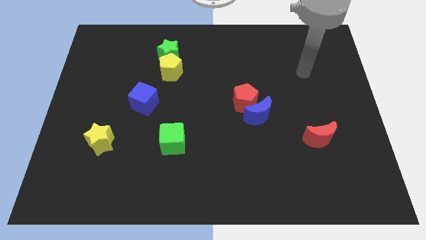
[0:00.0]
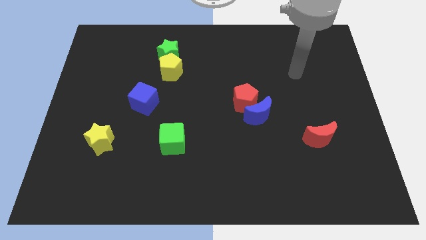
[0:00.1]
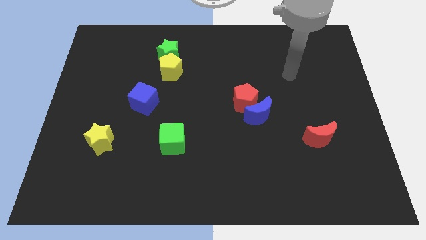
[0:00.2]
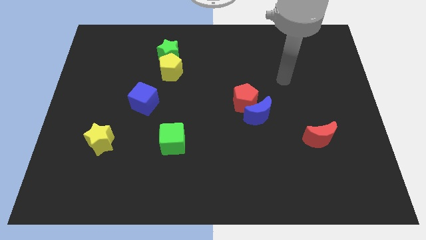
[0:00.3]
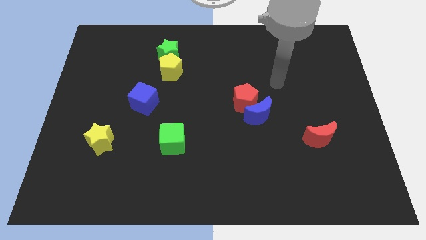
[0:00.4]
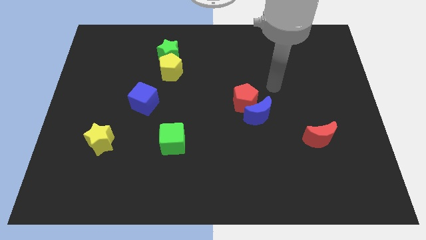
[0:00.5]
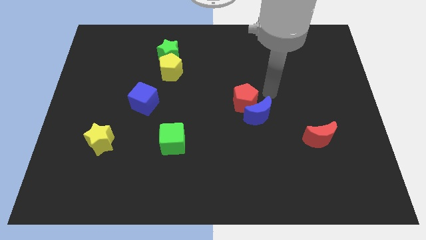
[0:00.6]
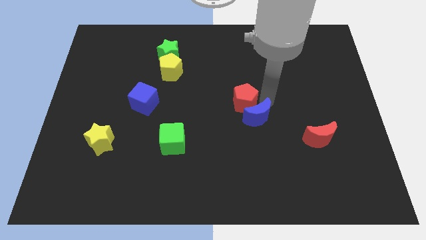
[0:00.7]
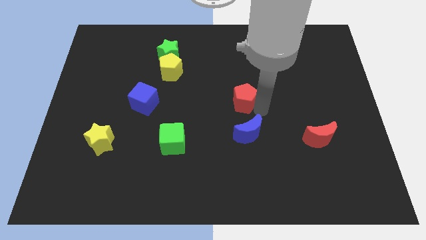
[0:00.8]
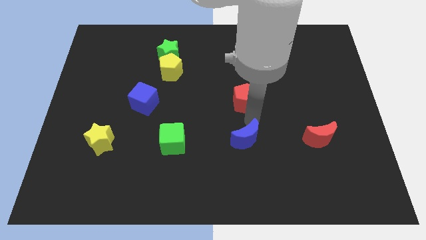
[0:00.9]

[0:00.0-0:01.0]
separate the red pentagon from the blue moon

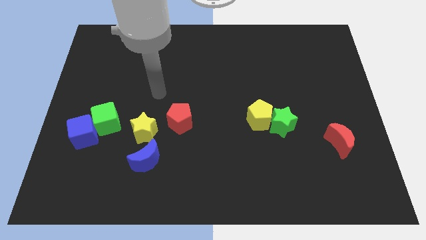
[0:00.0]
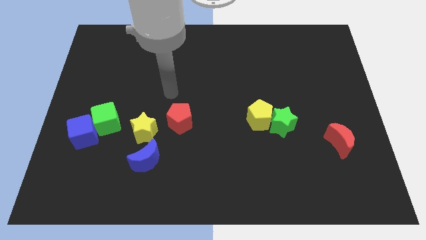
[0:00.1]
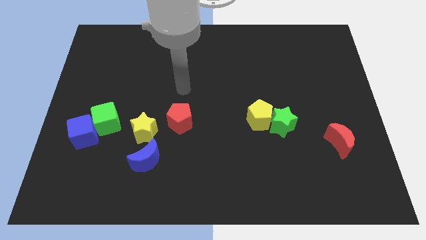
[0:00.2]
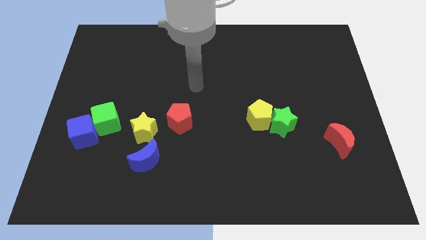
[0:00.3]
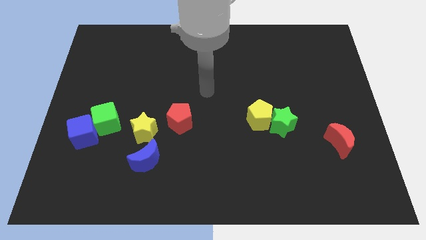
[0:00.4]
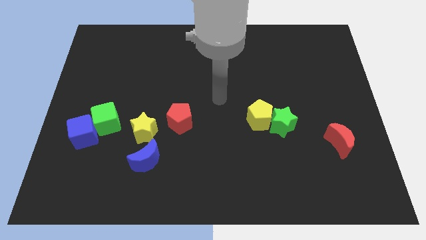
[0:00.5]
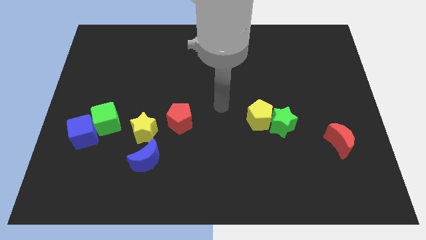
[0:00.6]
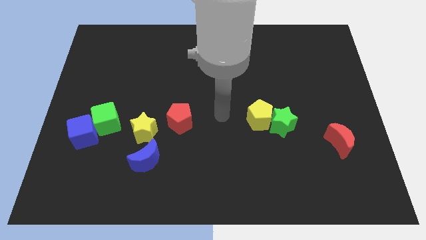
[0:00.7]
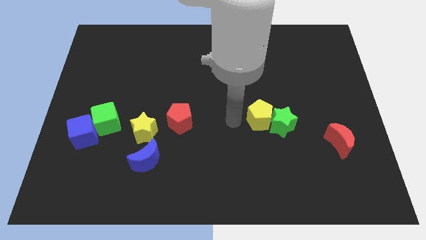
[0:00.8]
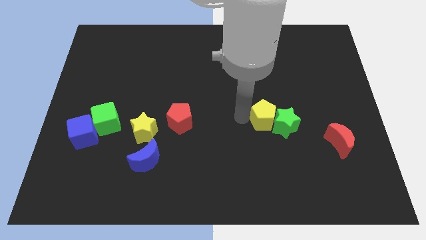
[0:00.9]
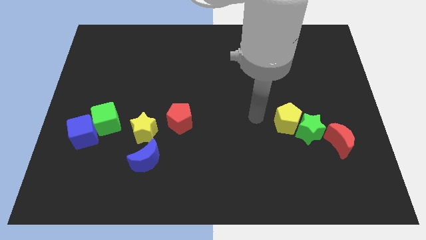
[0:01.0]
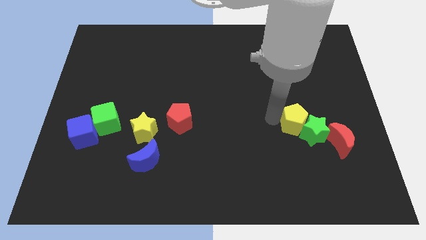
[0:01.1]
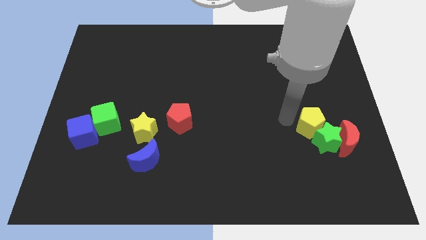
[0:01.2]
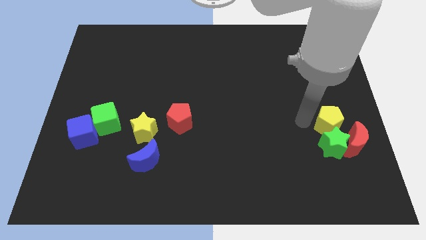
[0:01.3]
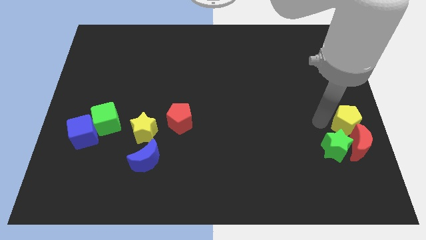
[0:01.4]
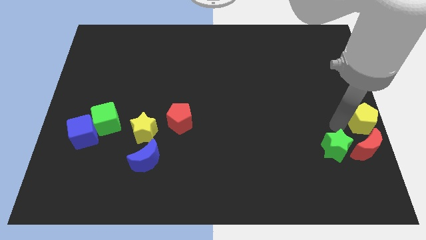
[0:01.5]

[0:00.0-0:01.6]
pull the green star apart from the yellow pentagon

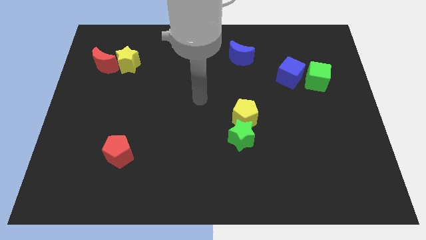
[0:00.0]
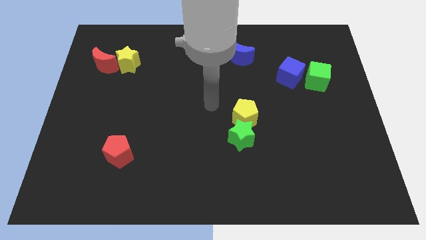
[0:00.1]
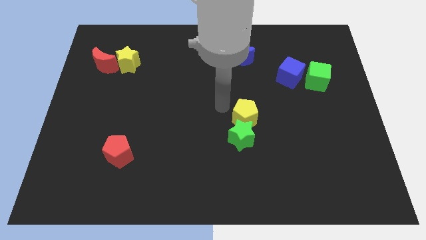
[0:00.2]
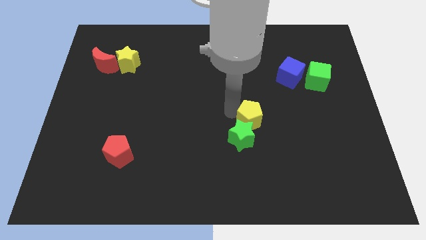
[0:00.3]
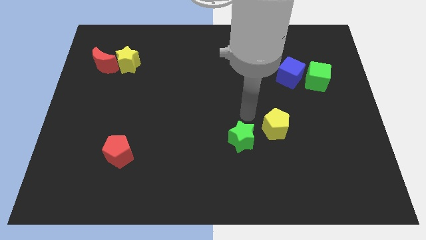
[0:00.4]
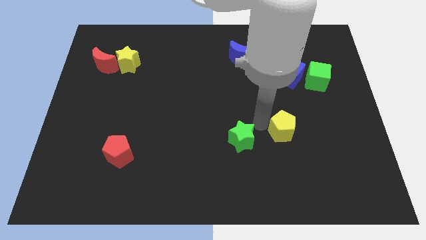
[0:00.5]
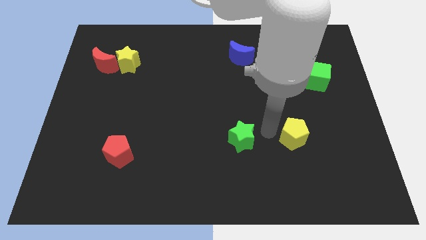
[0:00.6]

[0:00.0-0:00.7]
separate the green star from the yellow pentagon

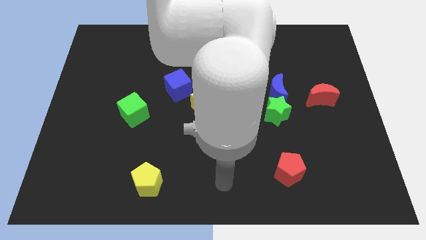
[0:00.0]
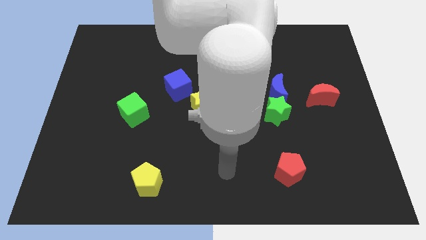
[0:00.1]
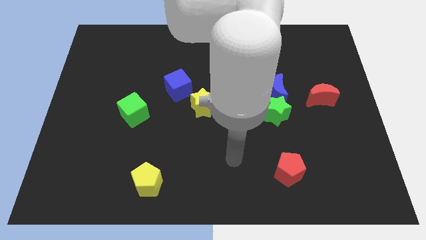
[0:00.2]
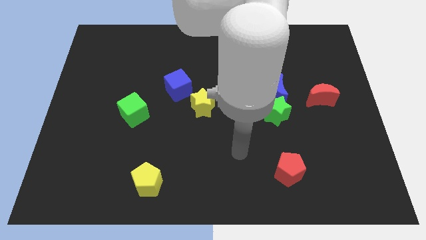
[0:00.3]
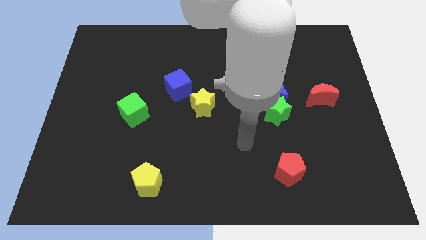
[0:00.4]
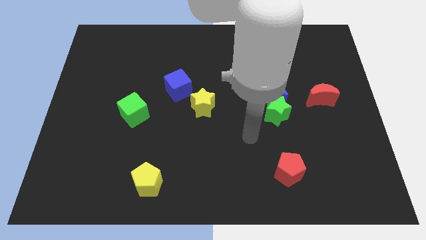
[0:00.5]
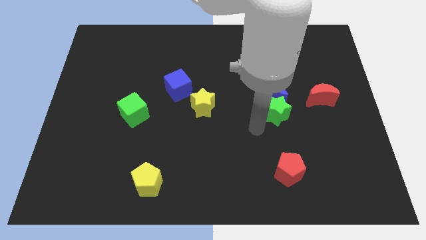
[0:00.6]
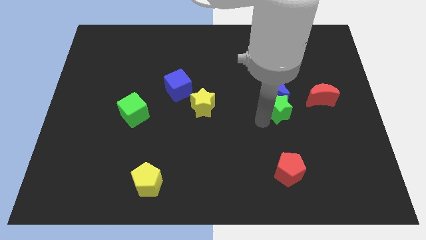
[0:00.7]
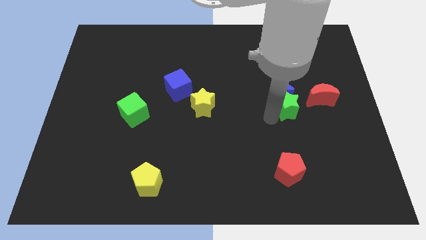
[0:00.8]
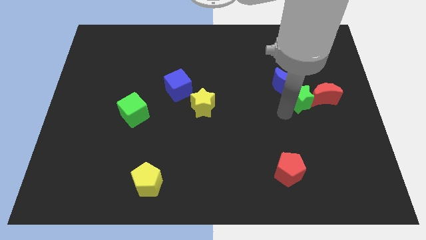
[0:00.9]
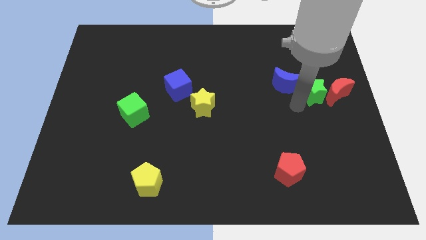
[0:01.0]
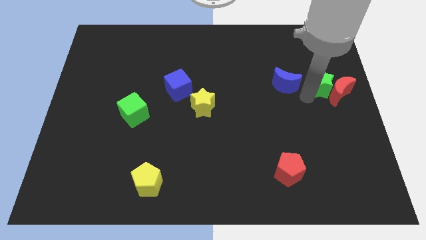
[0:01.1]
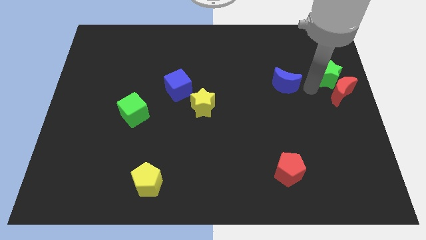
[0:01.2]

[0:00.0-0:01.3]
separate the blue moon from the green star

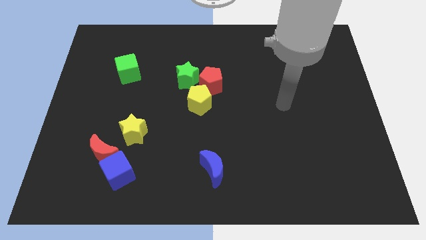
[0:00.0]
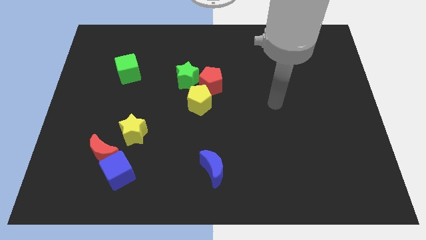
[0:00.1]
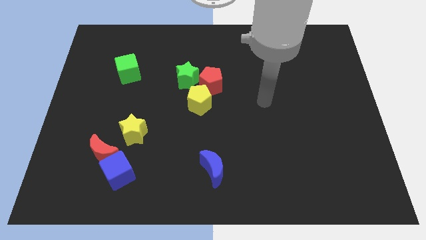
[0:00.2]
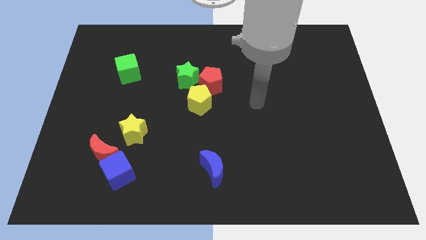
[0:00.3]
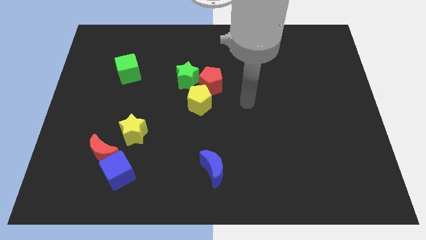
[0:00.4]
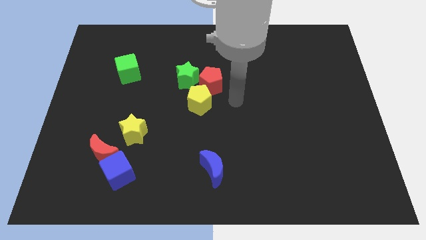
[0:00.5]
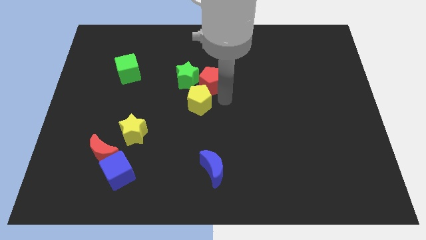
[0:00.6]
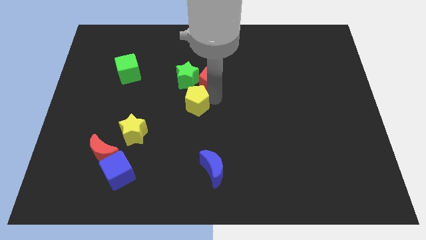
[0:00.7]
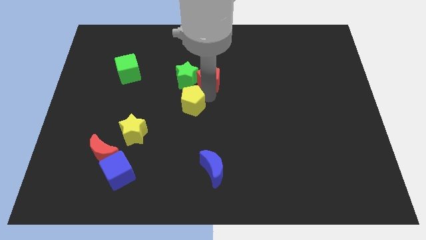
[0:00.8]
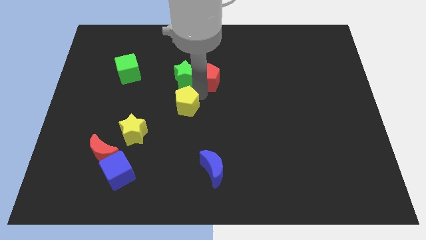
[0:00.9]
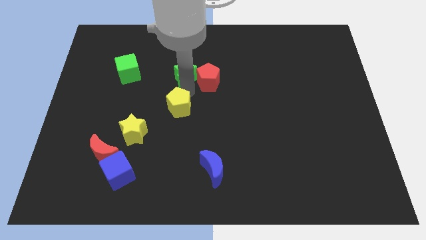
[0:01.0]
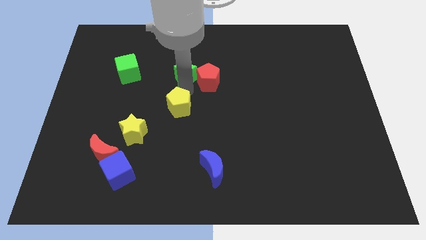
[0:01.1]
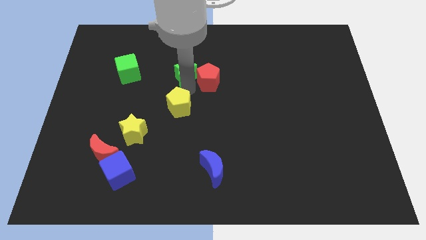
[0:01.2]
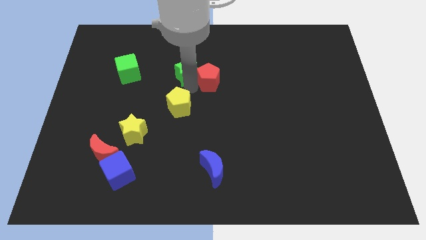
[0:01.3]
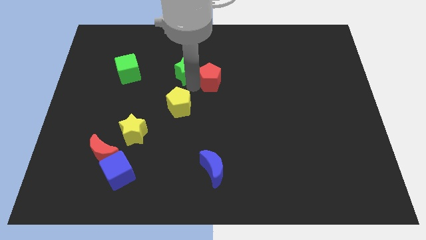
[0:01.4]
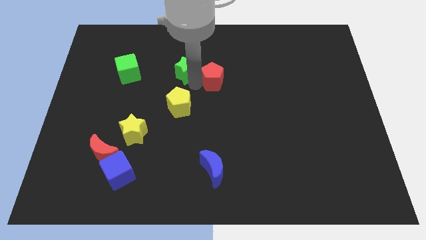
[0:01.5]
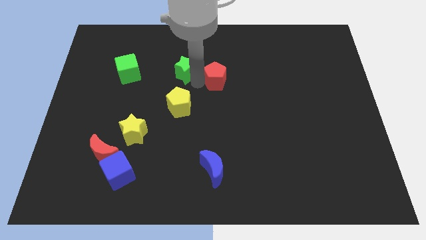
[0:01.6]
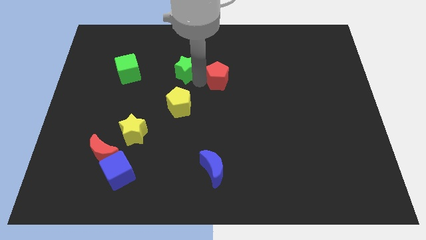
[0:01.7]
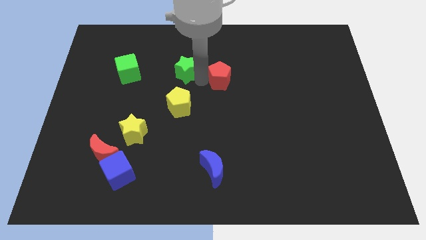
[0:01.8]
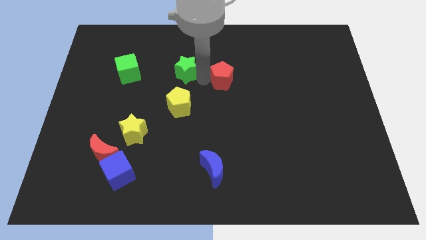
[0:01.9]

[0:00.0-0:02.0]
pull the red pentagon apart from the green star and yellow pentagon

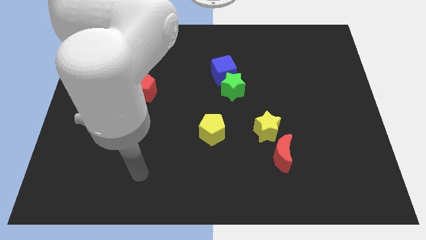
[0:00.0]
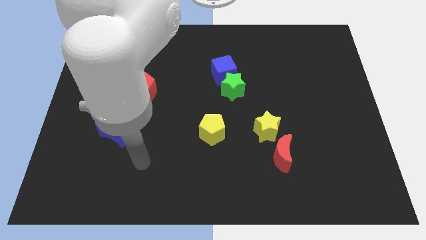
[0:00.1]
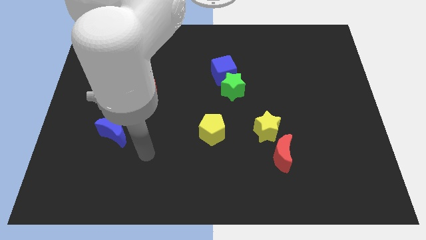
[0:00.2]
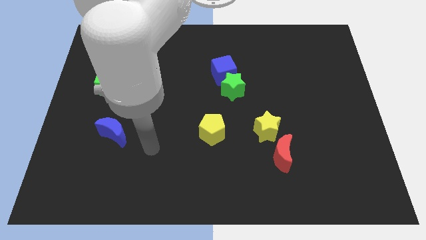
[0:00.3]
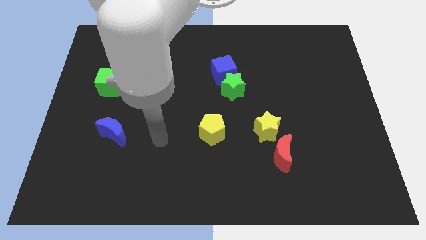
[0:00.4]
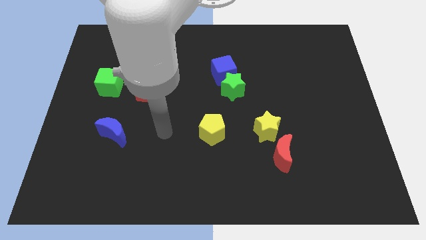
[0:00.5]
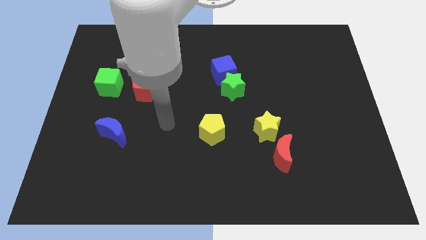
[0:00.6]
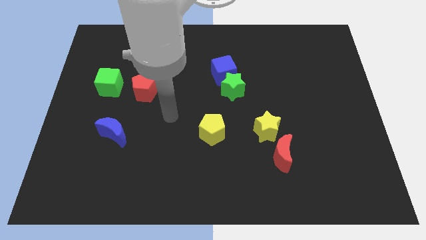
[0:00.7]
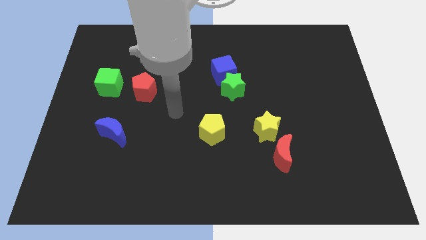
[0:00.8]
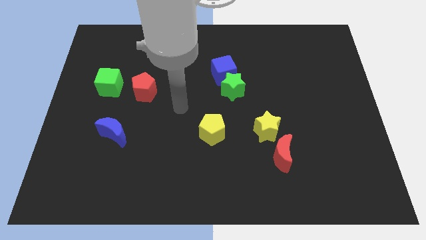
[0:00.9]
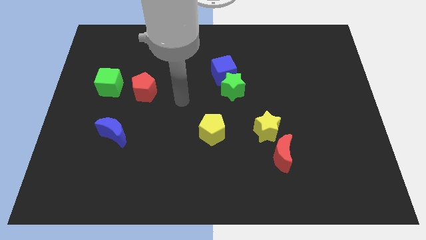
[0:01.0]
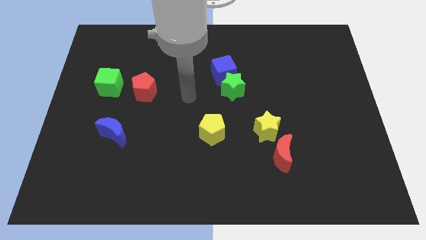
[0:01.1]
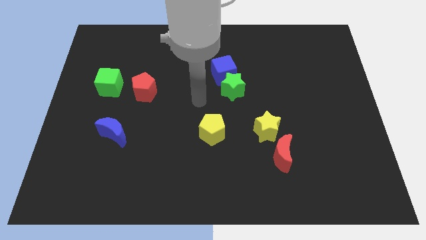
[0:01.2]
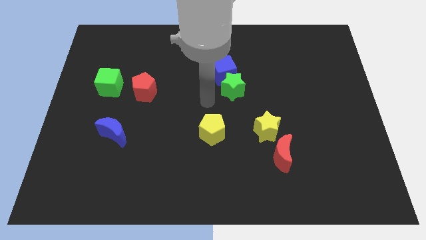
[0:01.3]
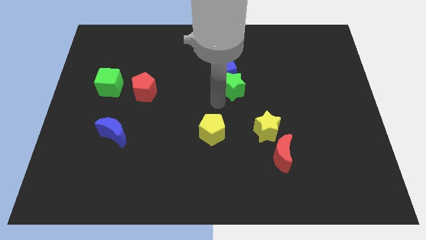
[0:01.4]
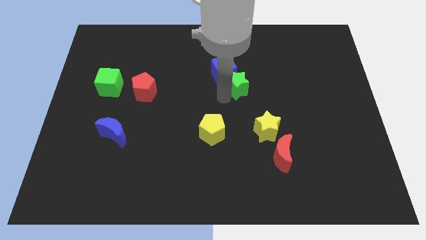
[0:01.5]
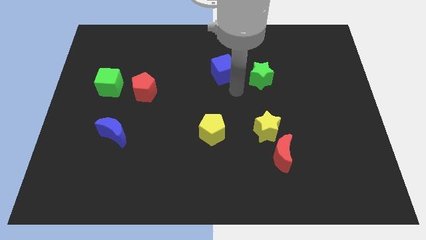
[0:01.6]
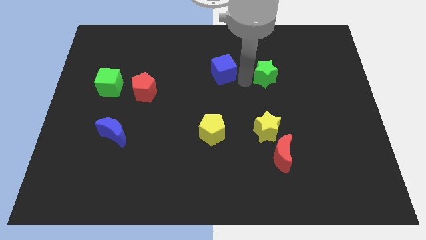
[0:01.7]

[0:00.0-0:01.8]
move the blue cube away from the green star

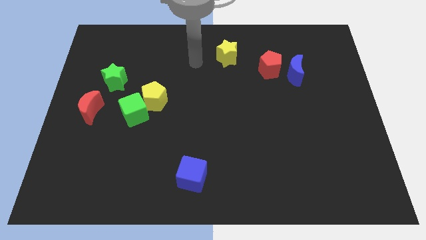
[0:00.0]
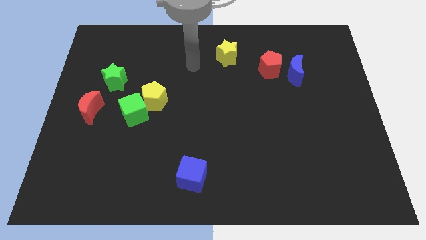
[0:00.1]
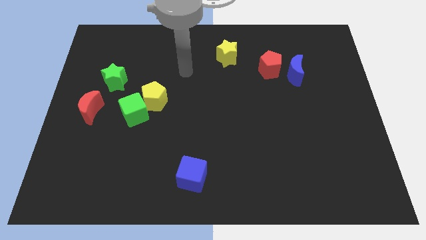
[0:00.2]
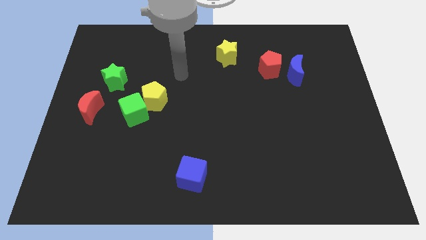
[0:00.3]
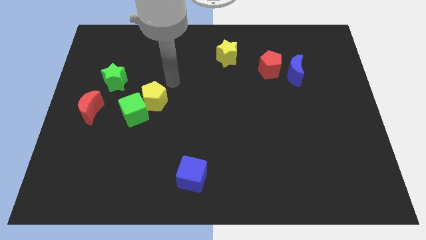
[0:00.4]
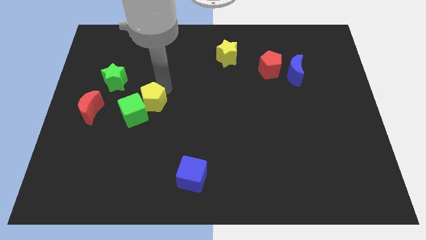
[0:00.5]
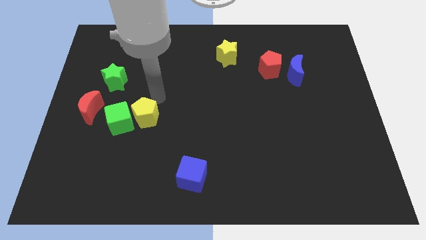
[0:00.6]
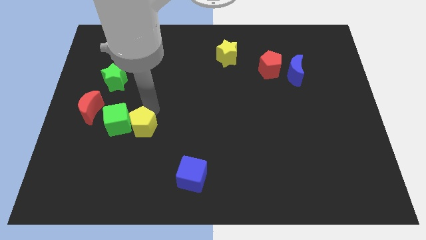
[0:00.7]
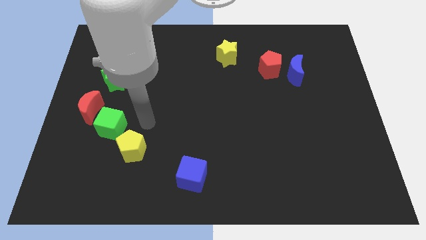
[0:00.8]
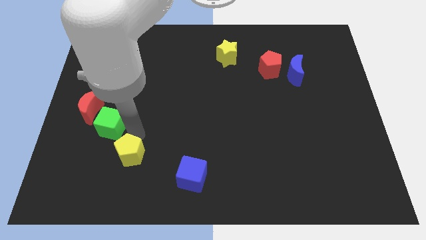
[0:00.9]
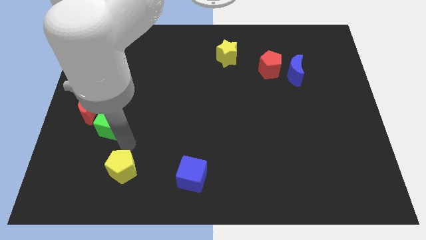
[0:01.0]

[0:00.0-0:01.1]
move the green cube away from the yellow pentagon
